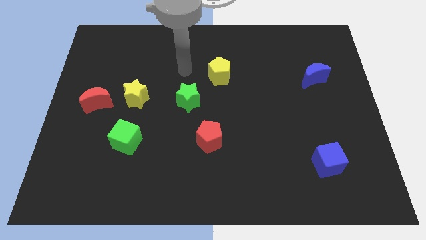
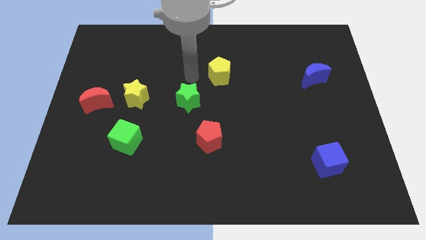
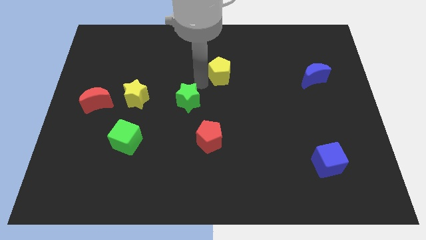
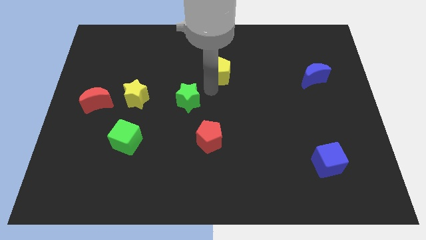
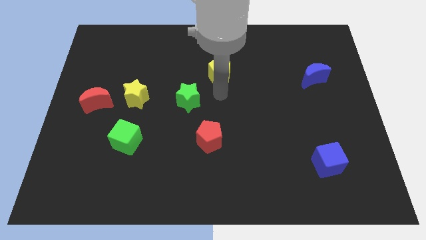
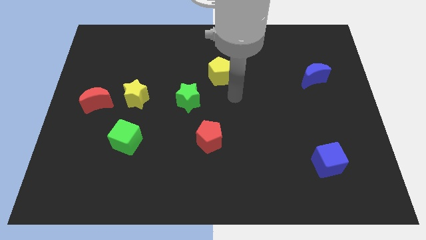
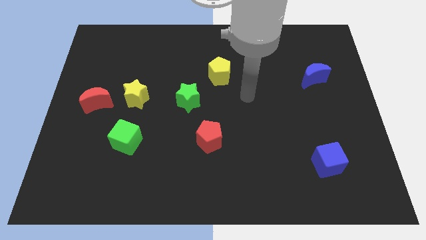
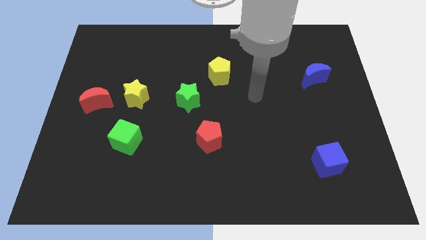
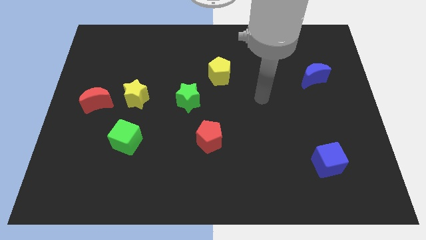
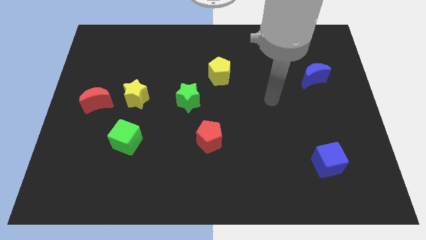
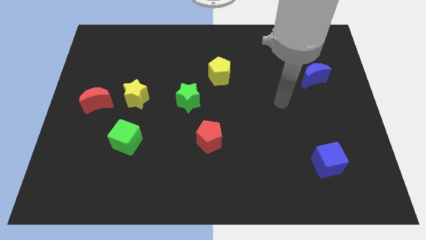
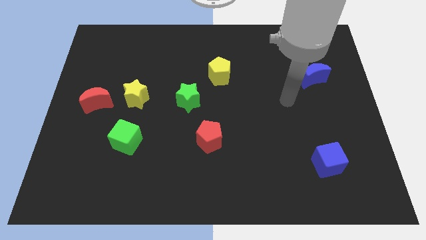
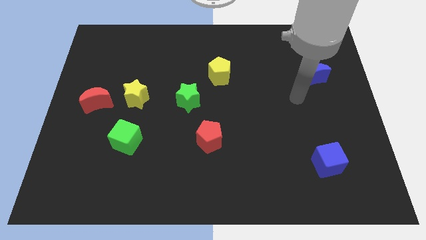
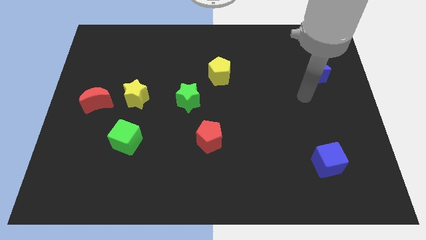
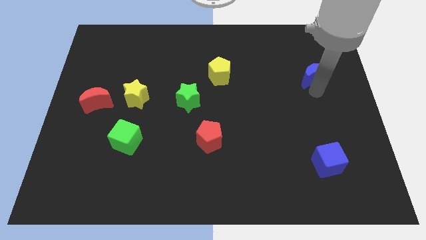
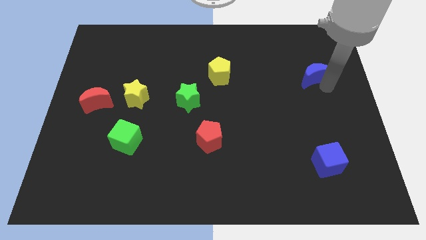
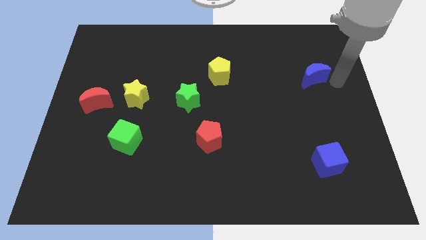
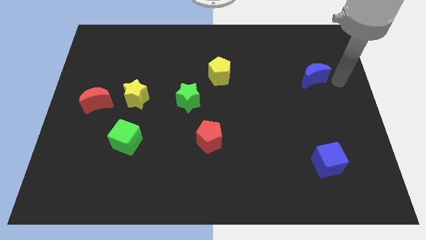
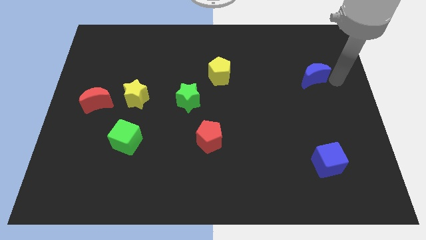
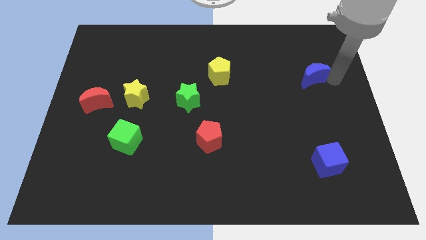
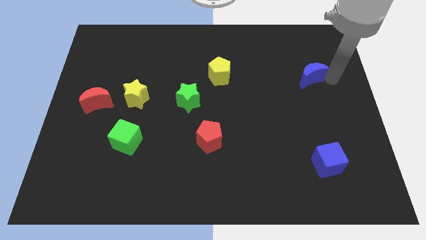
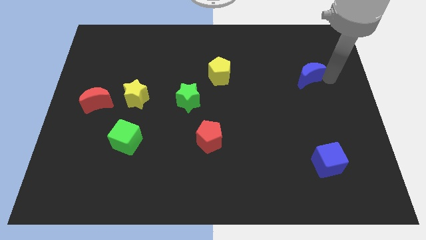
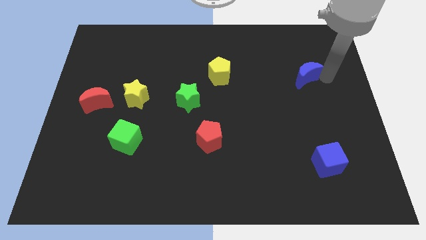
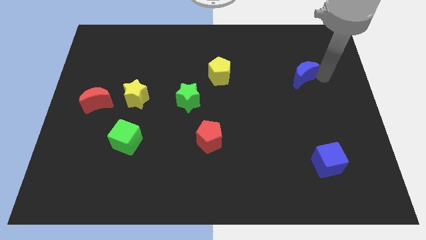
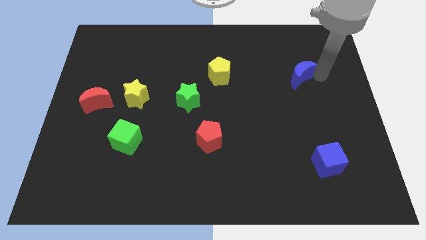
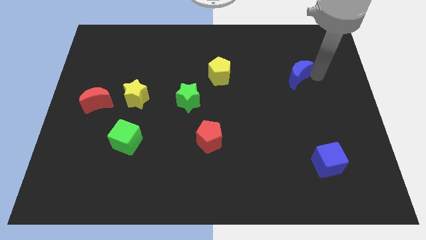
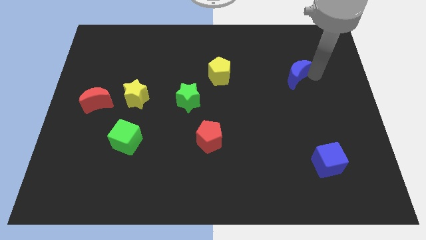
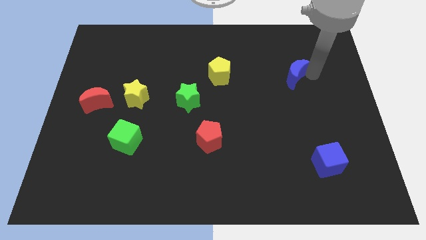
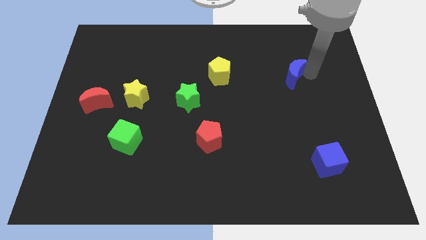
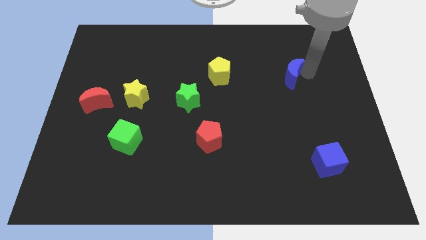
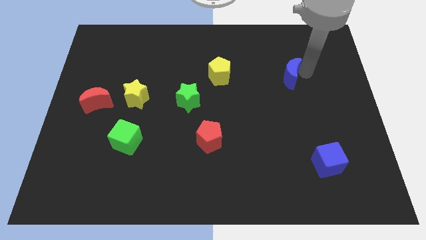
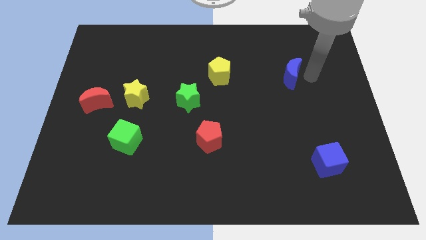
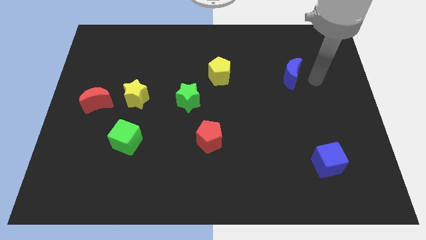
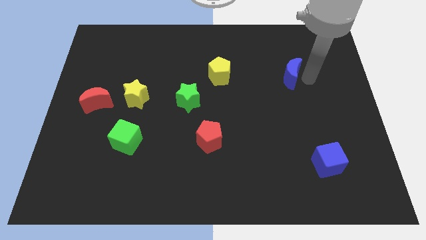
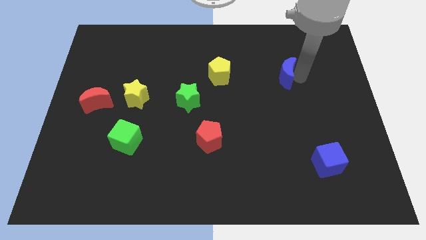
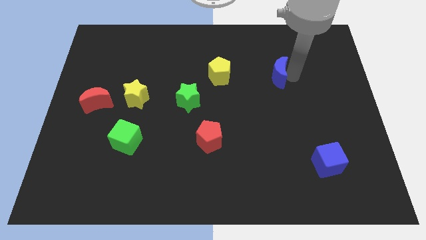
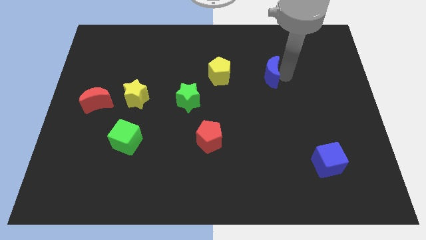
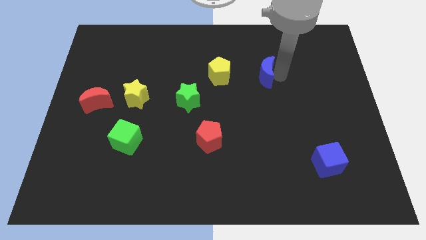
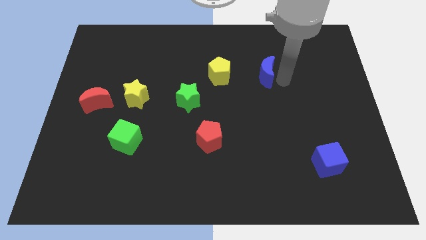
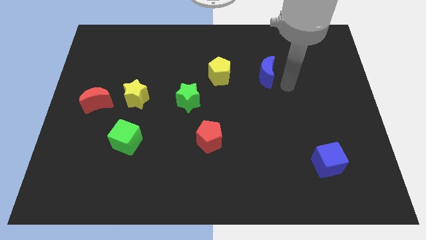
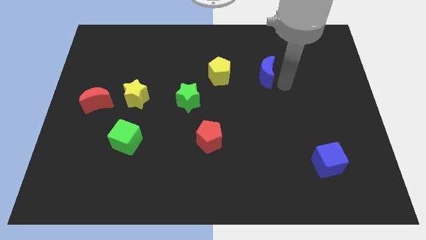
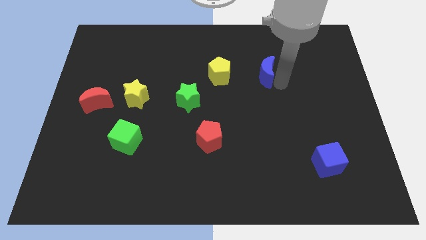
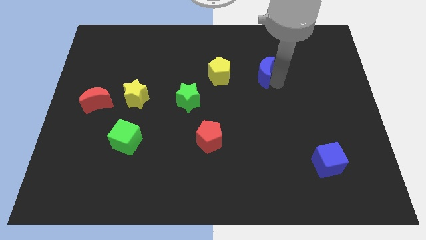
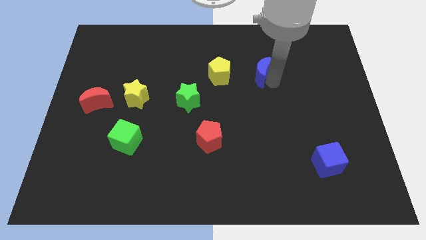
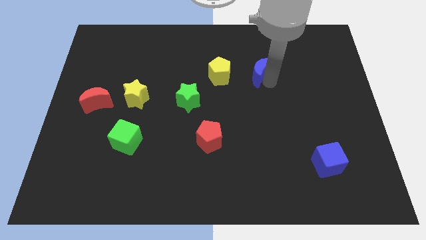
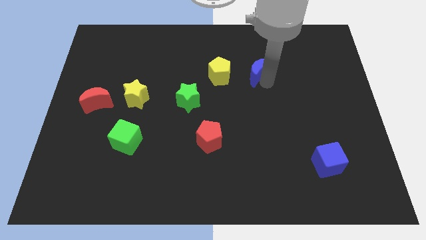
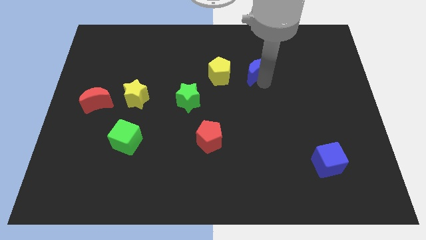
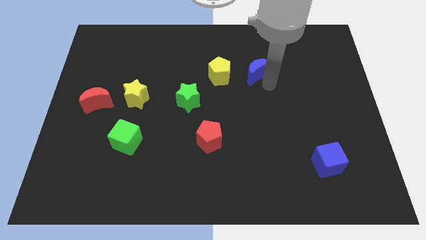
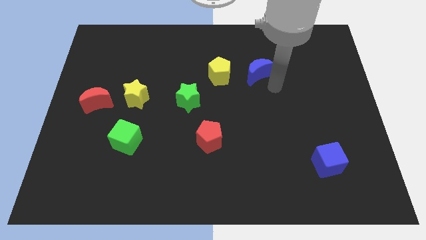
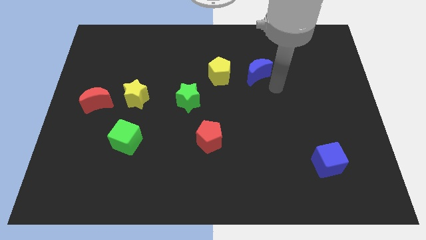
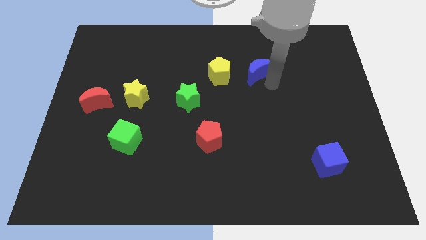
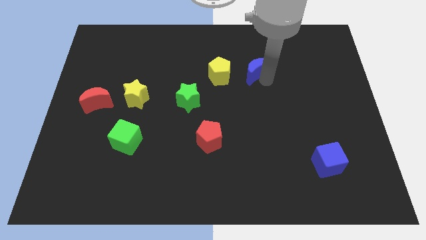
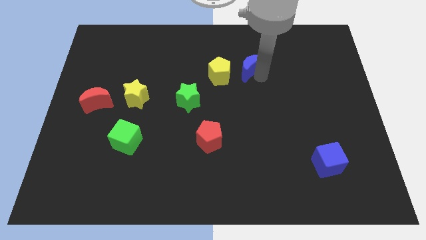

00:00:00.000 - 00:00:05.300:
move the blue moon to the top right side of the yellow pentagon

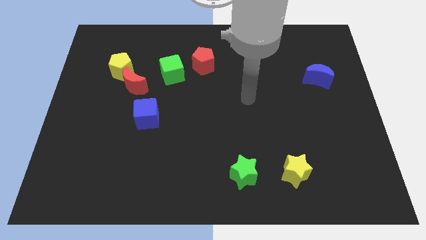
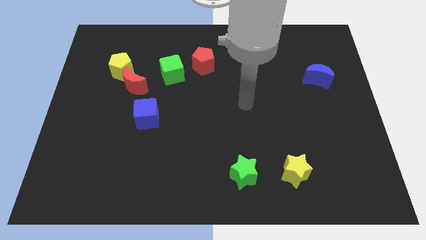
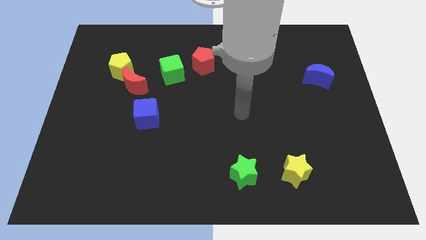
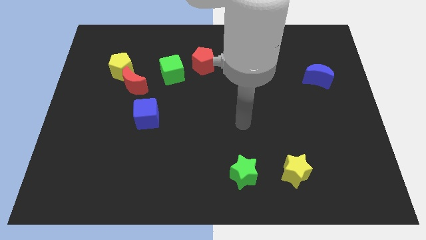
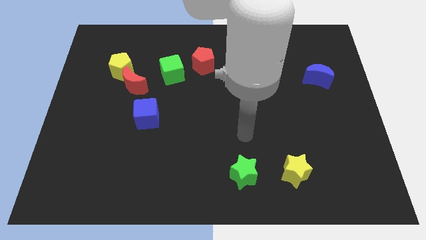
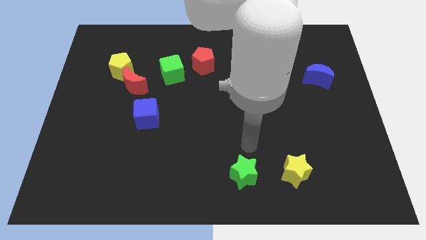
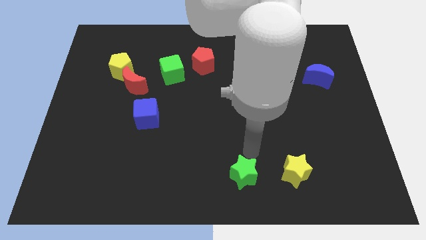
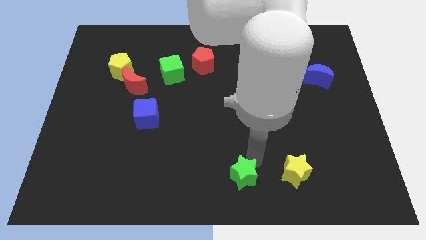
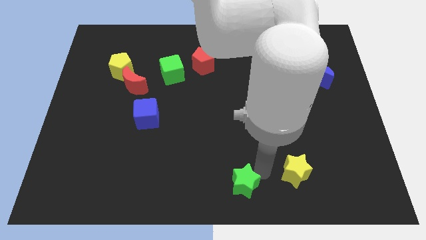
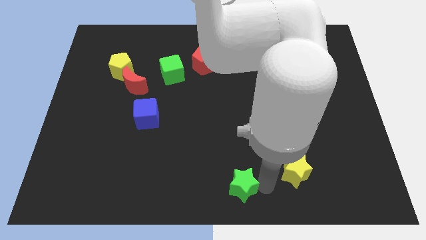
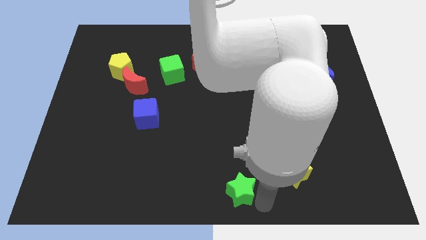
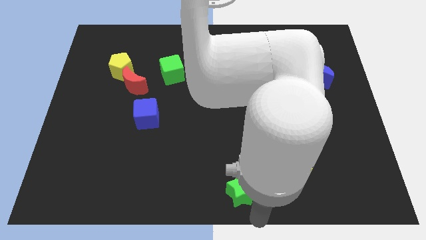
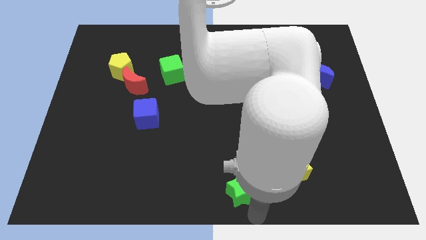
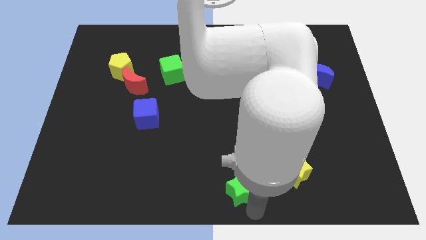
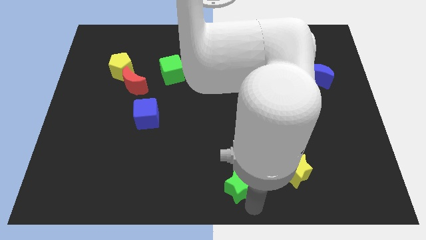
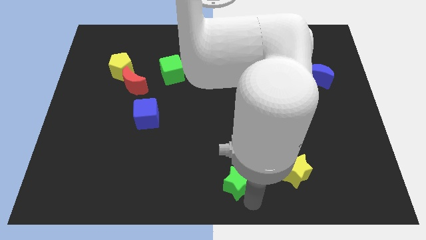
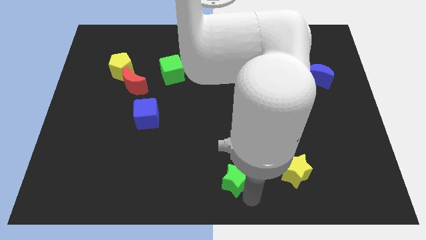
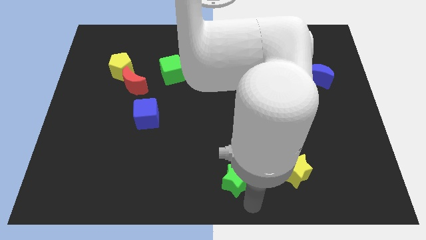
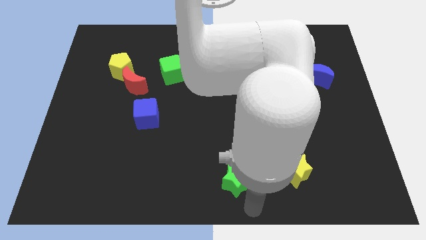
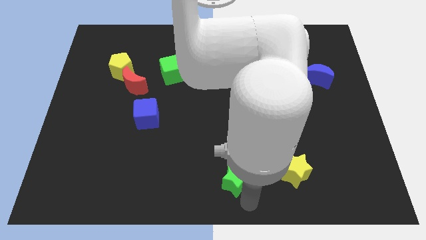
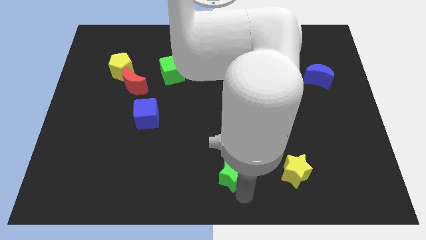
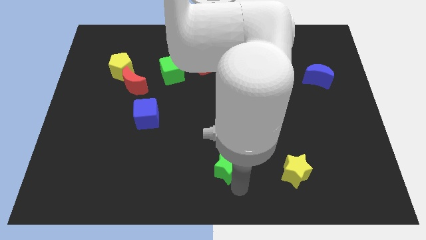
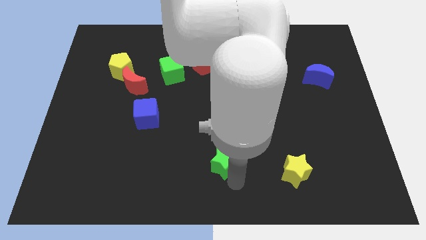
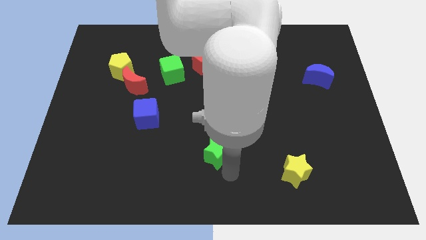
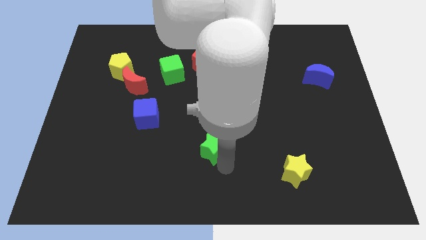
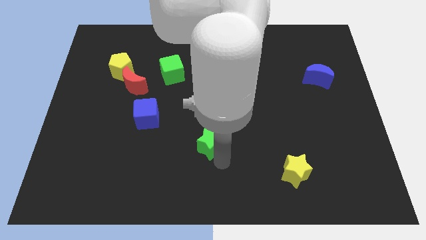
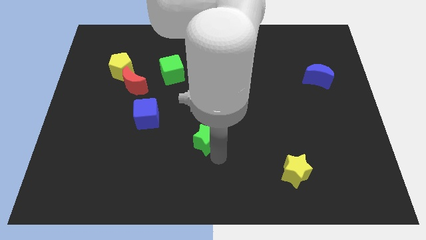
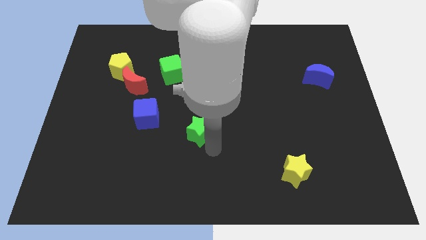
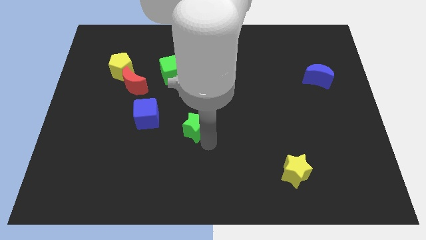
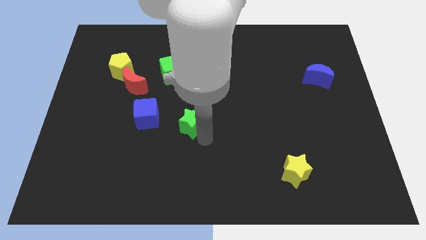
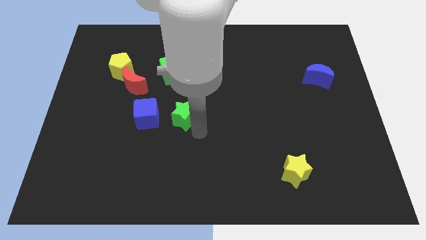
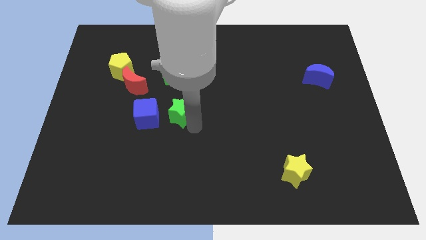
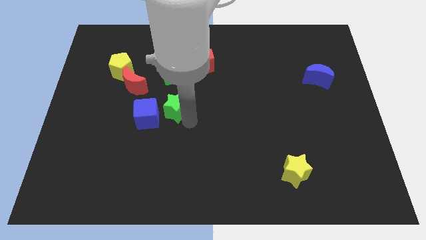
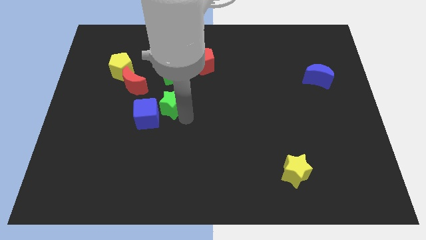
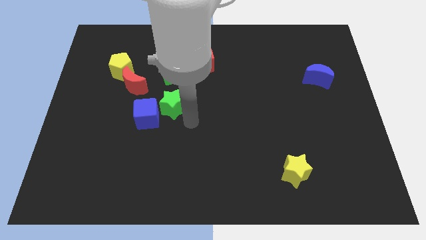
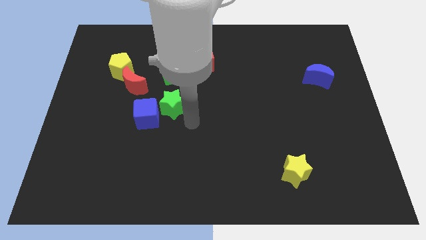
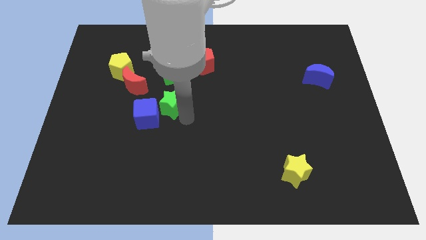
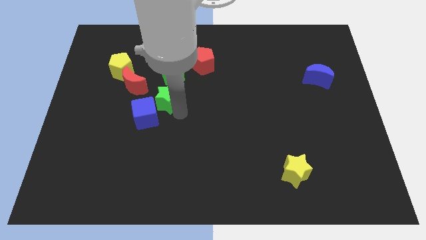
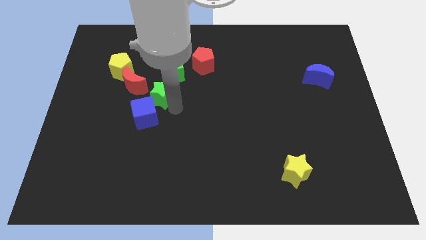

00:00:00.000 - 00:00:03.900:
put the green star diagonally down and to the left of the green cube
